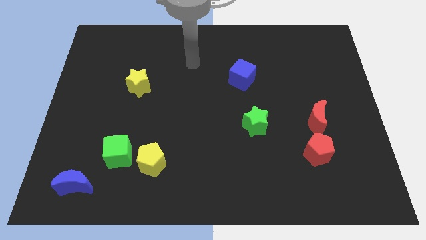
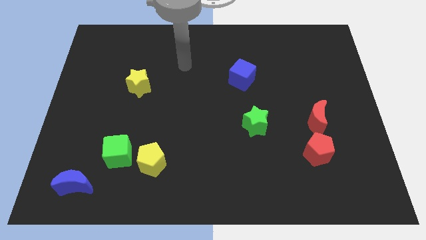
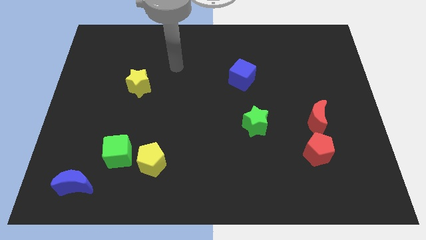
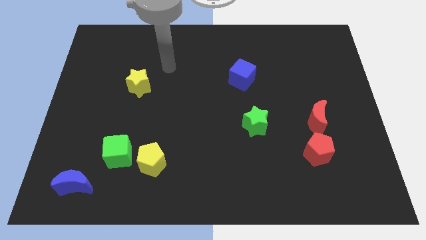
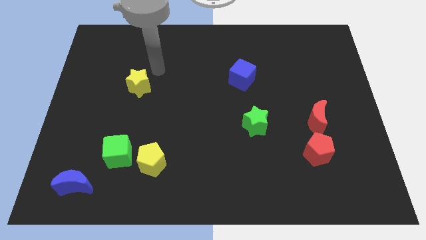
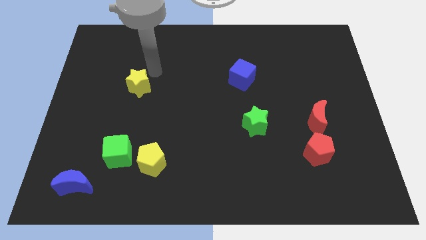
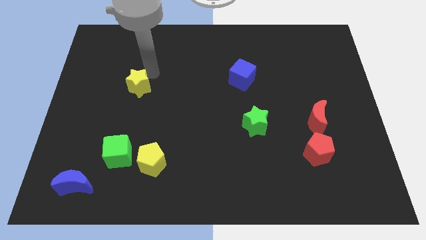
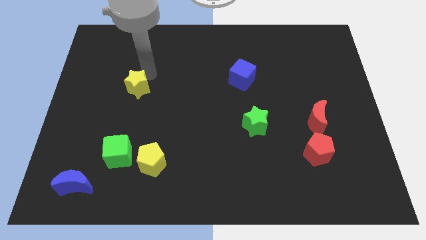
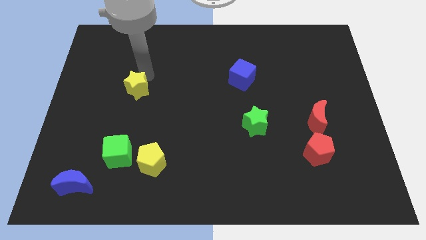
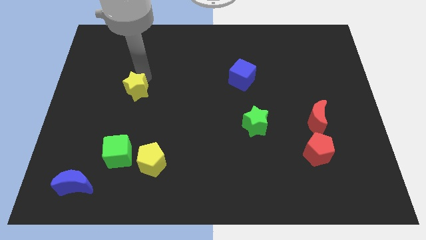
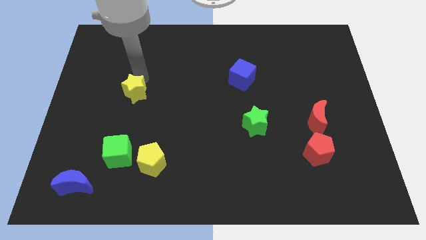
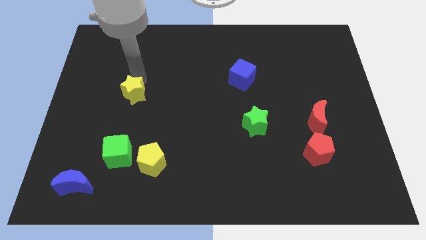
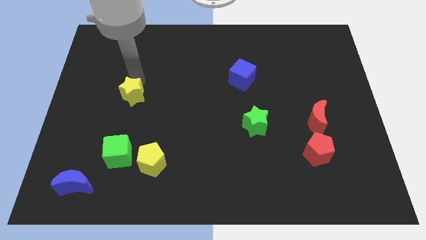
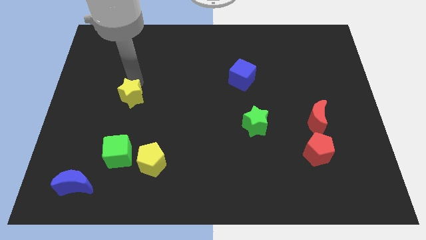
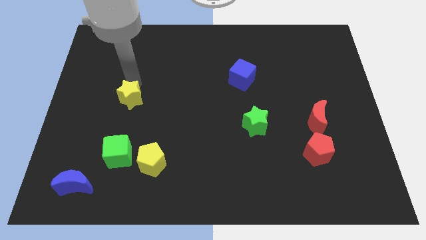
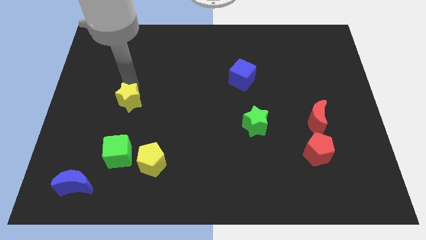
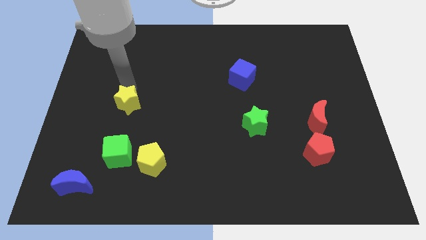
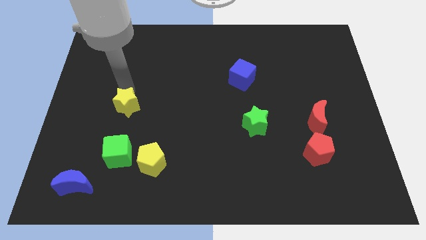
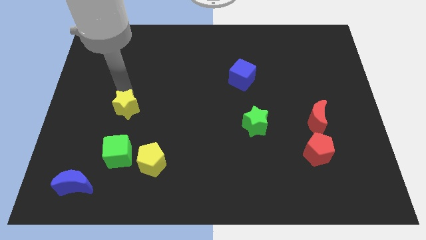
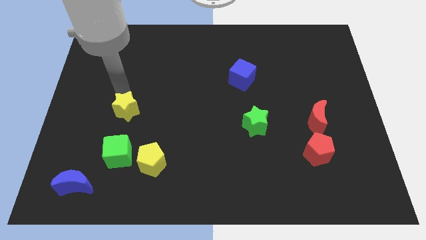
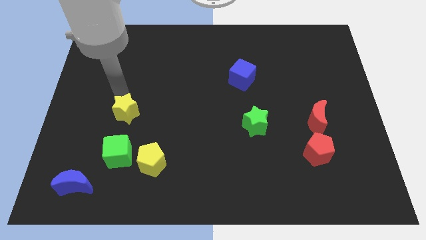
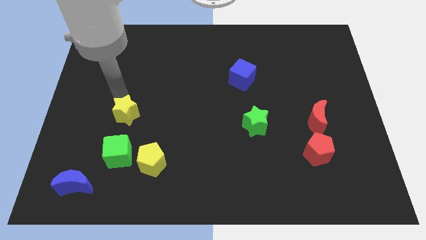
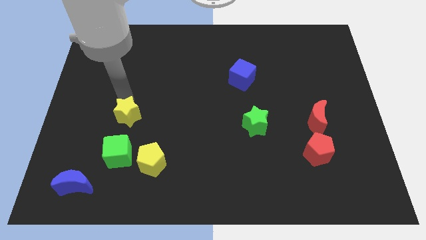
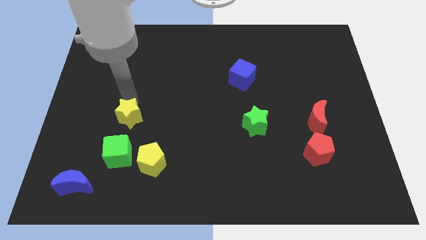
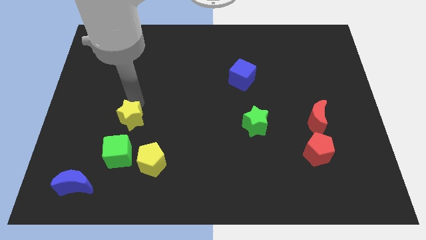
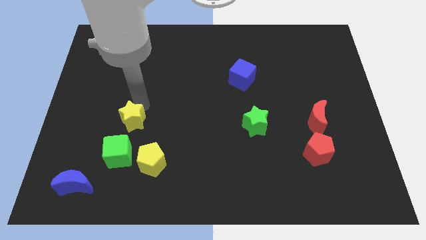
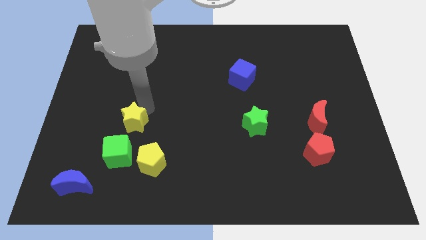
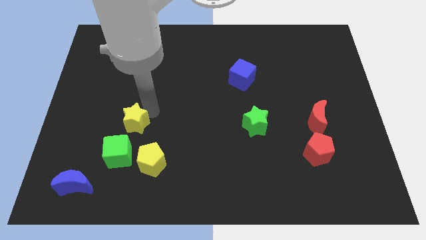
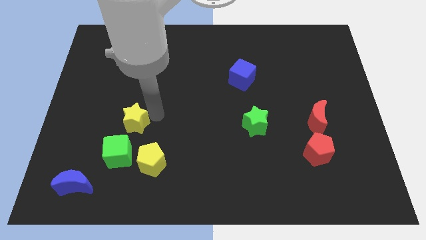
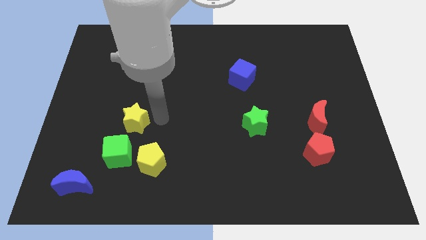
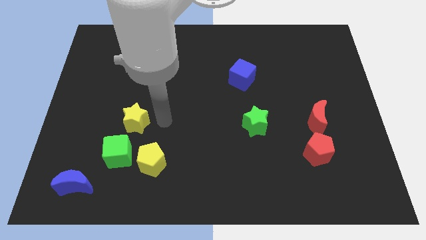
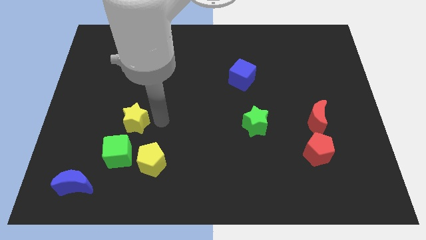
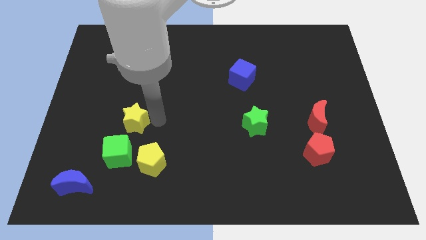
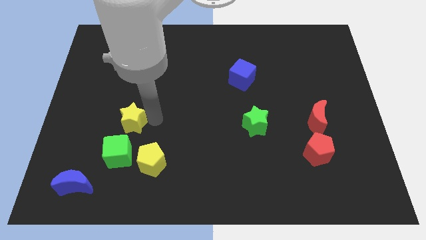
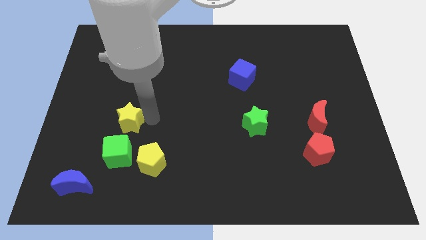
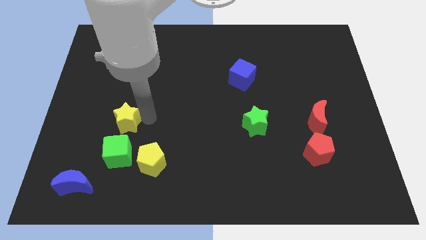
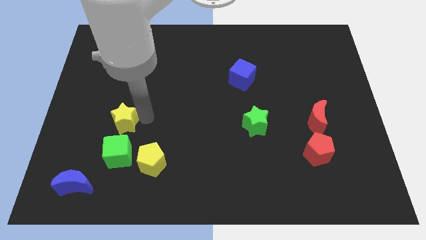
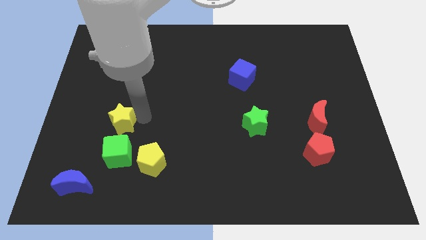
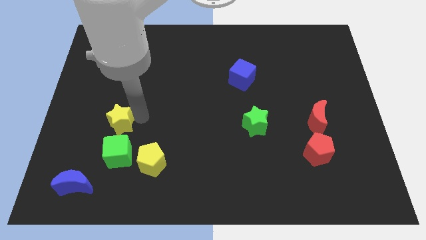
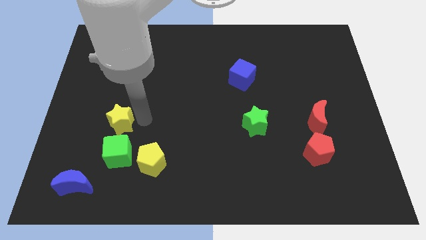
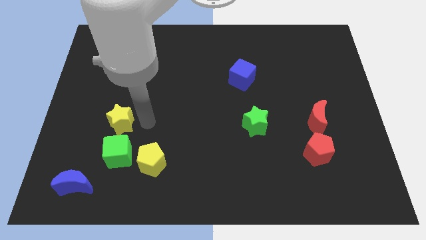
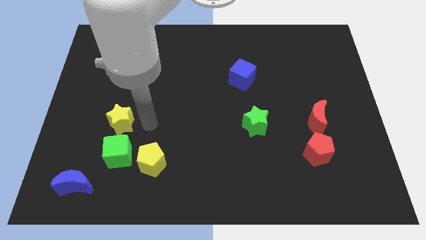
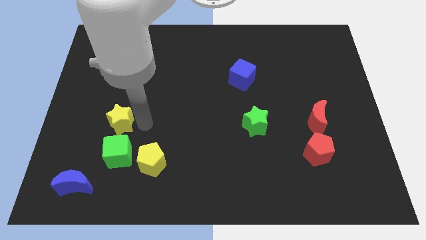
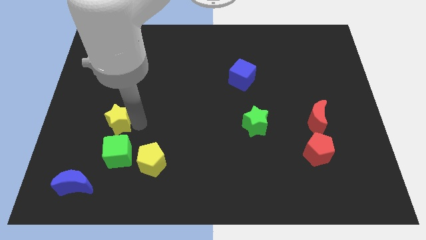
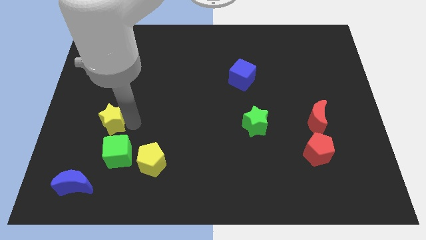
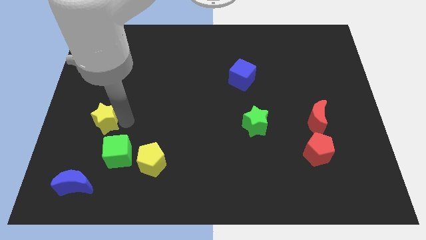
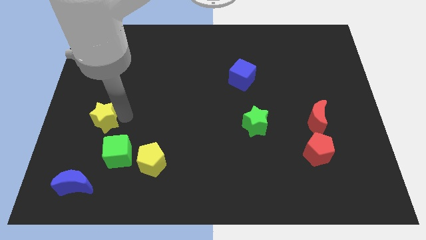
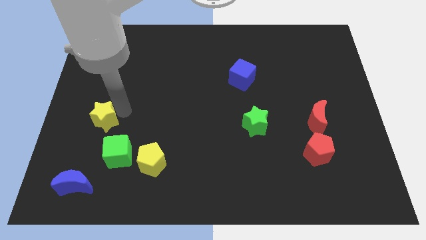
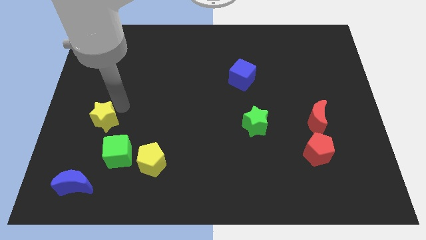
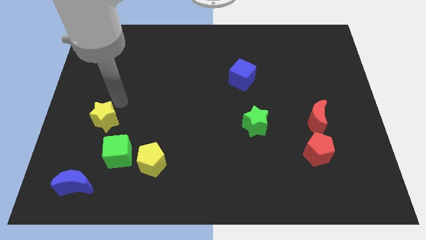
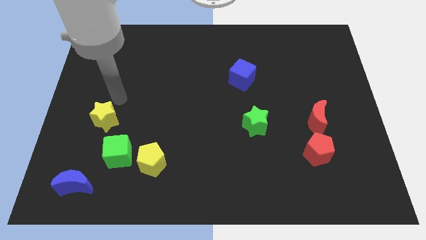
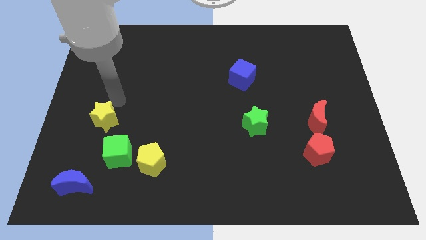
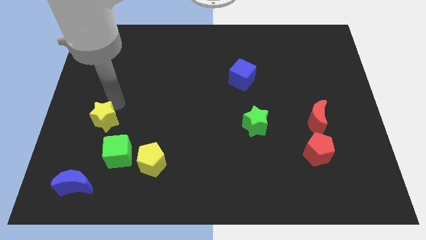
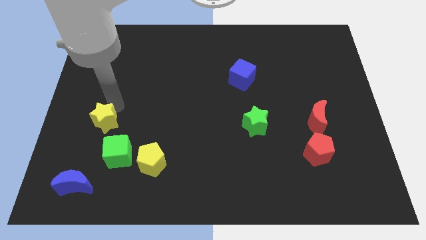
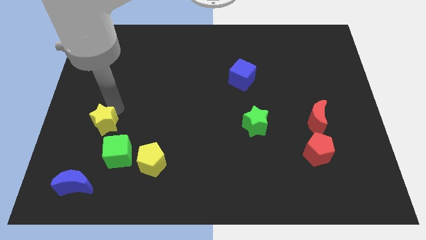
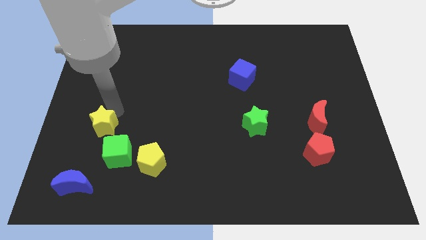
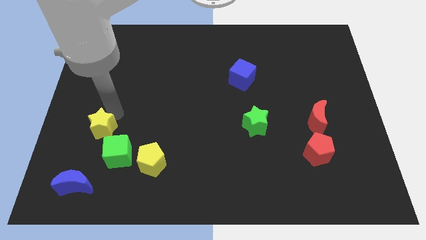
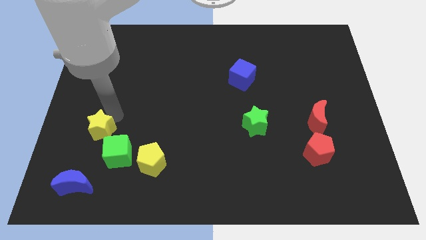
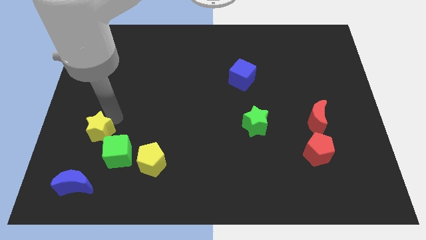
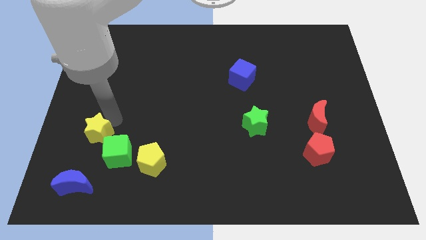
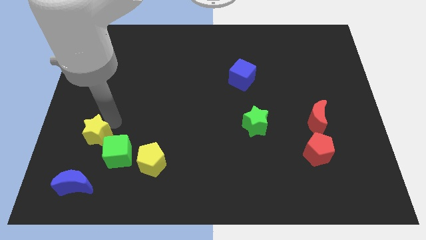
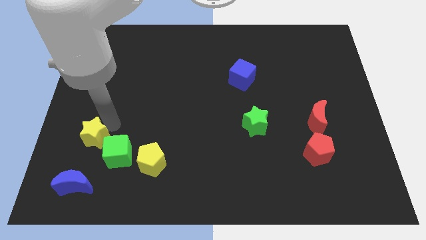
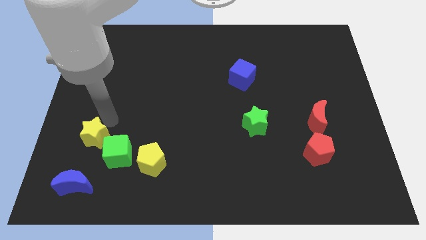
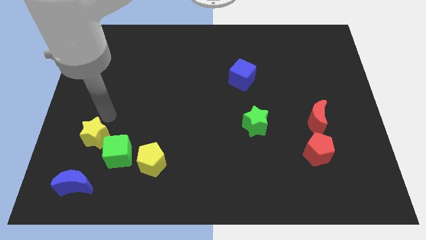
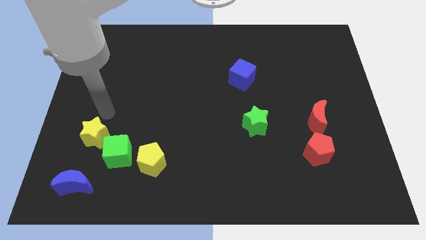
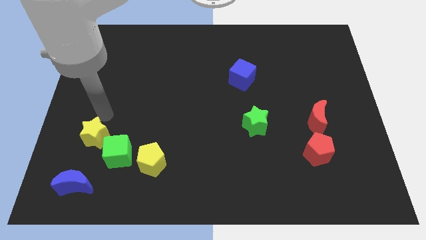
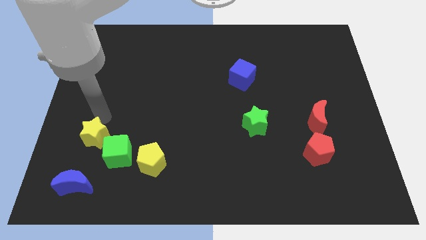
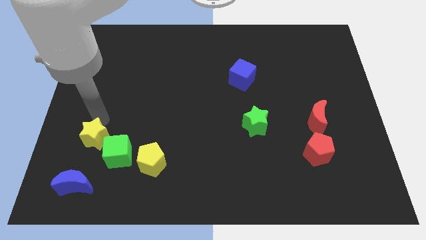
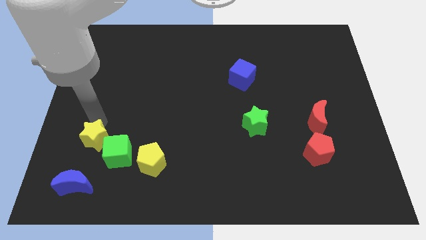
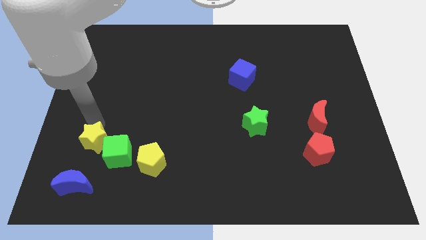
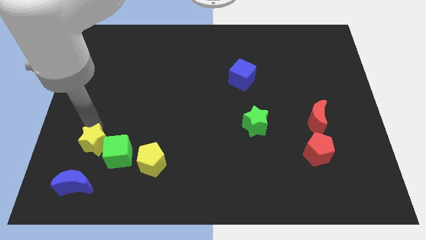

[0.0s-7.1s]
push the yellow star just left of the yellow pentagon
